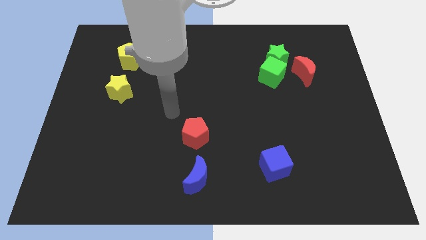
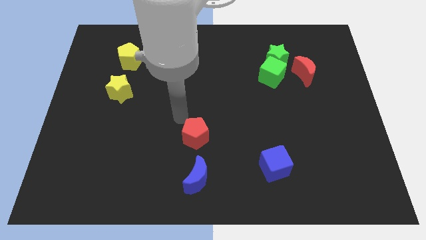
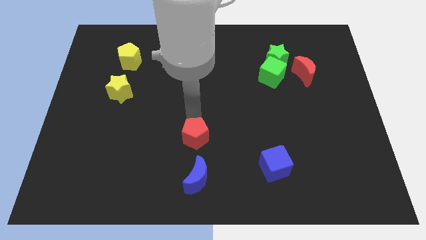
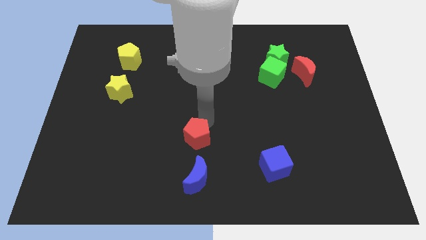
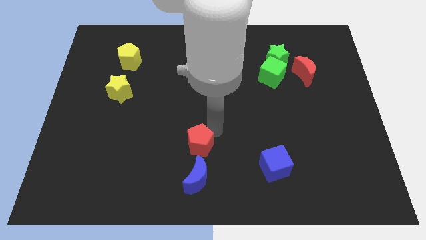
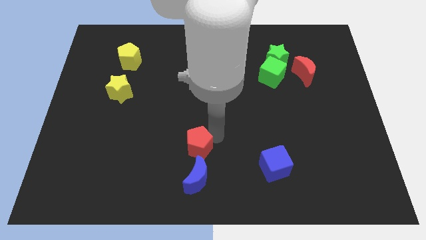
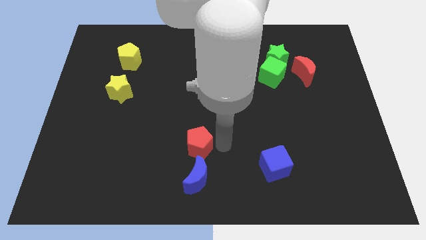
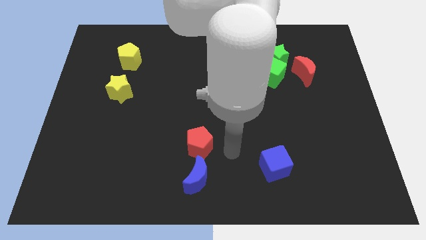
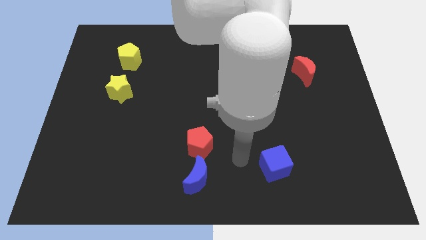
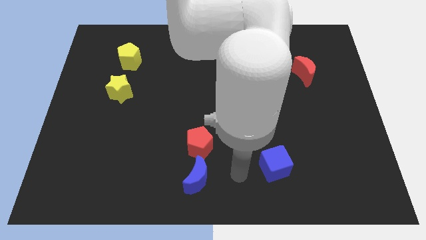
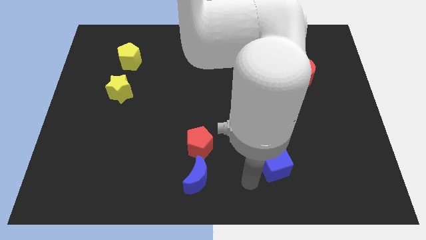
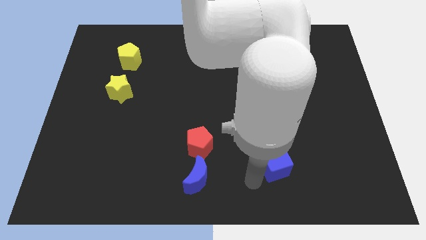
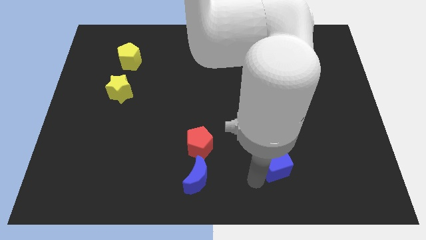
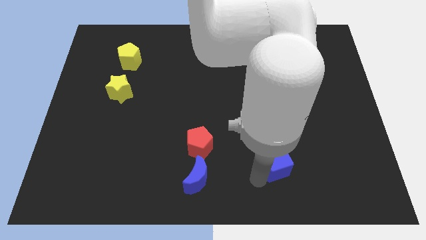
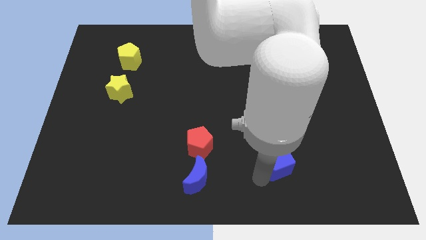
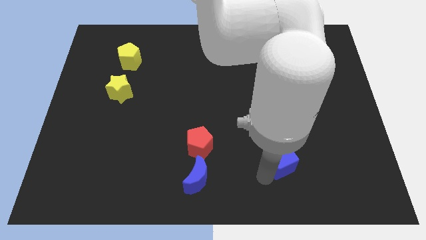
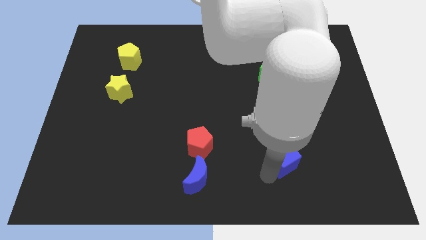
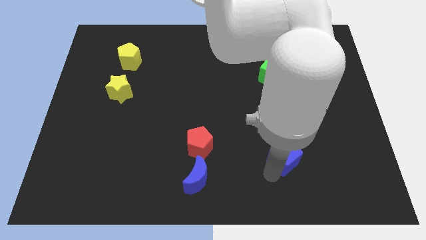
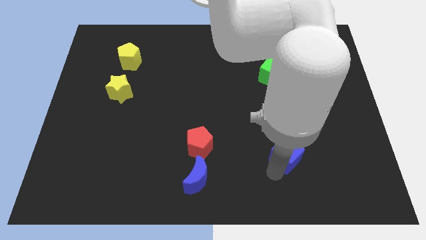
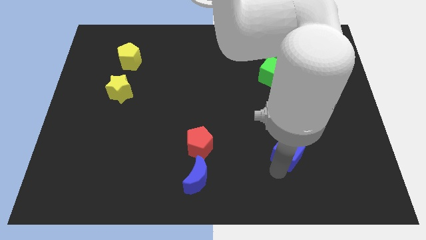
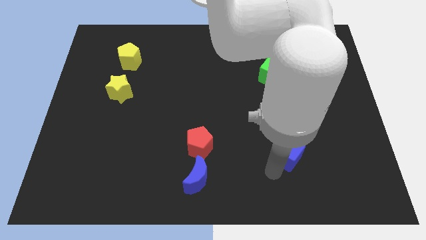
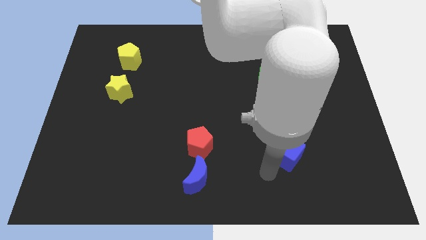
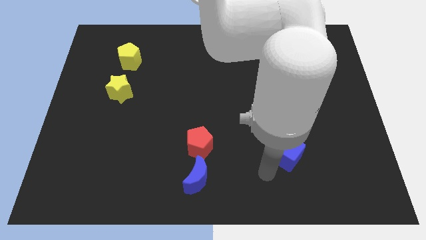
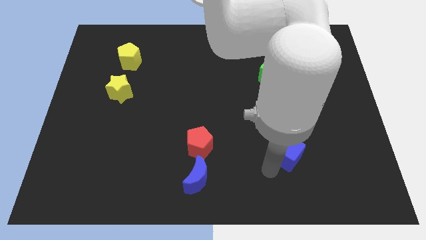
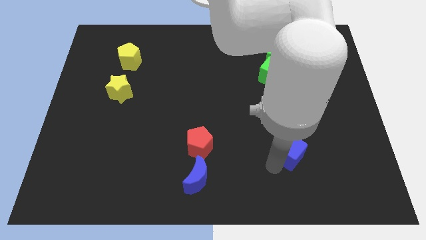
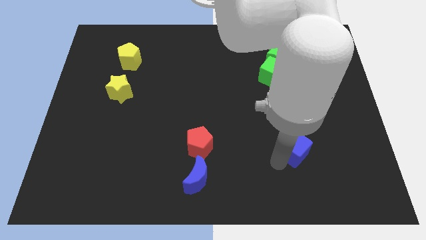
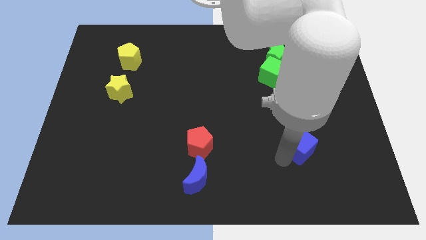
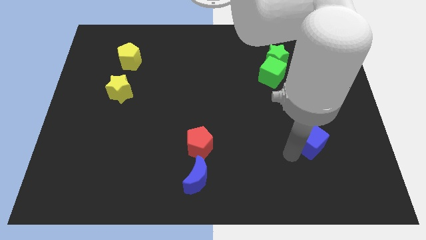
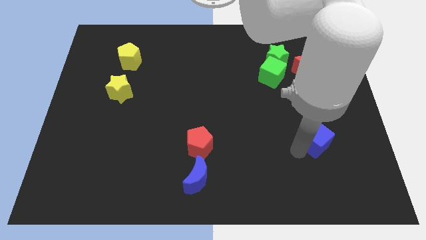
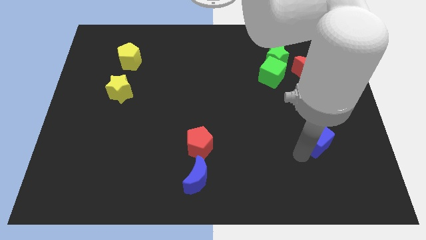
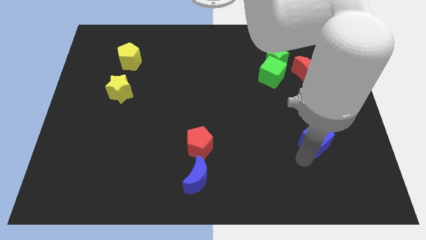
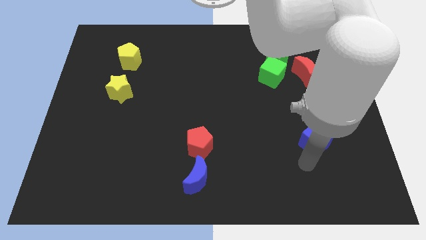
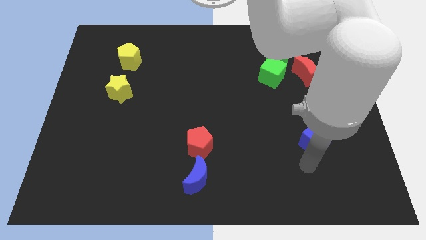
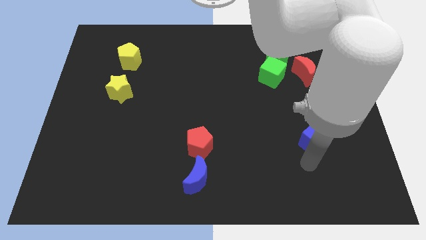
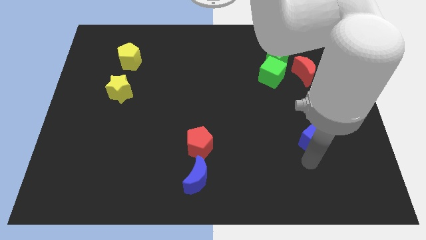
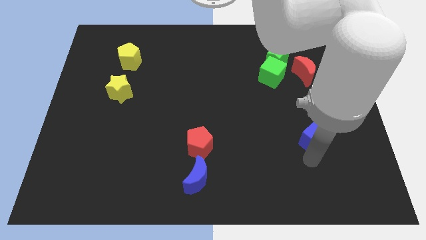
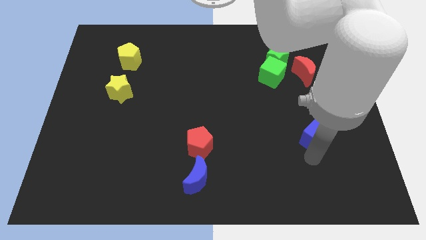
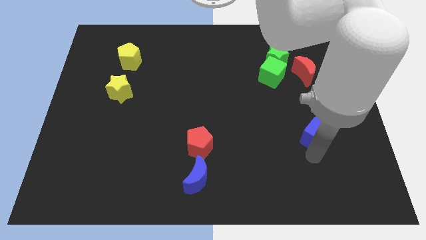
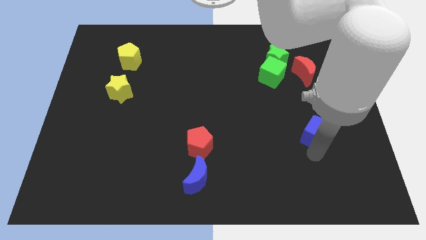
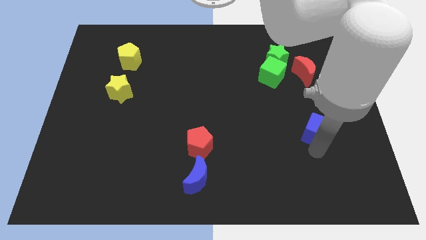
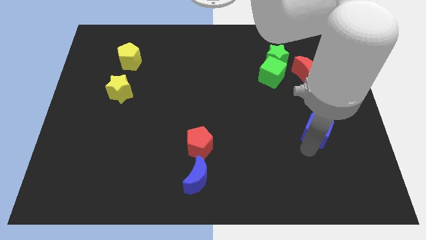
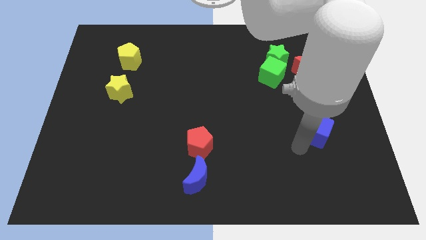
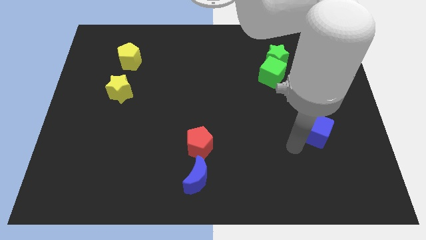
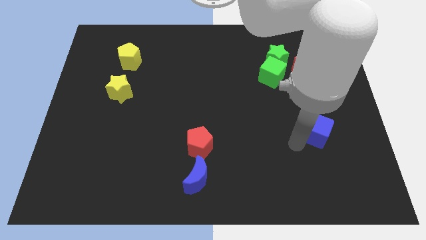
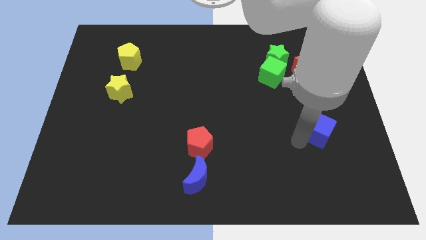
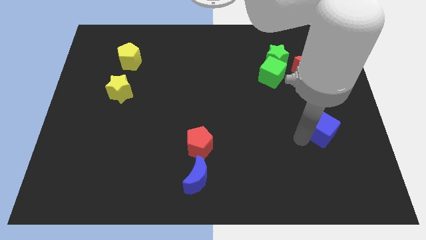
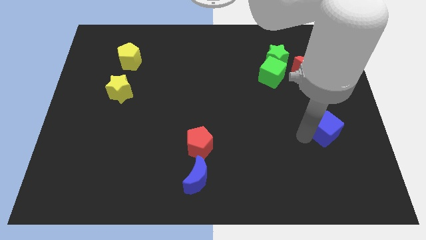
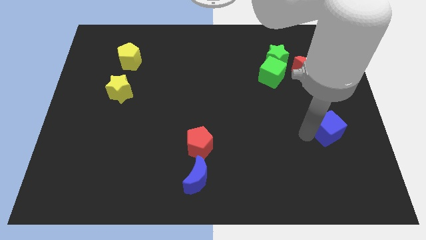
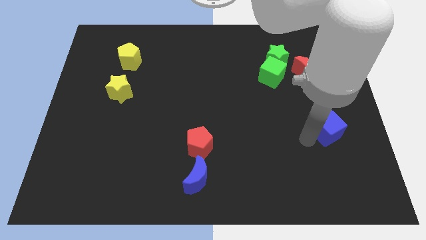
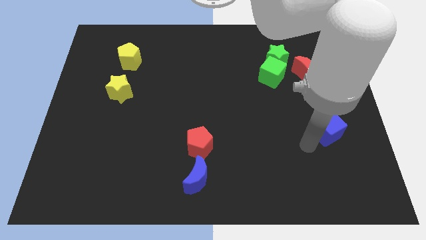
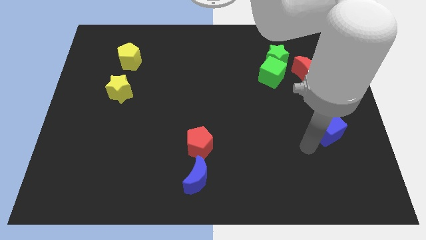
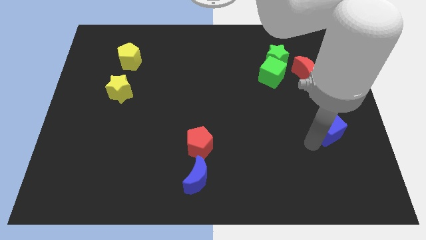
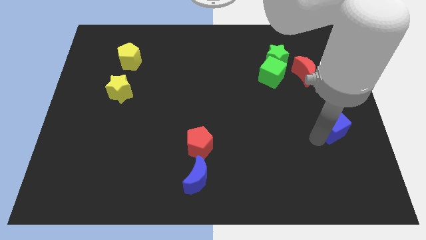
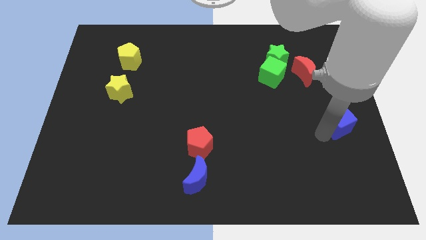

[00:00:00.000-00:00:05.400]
slide the blue cube to the center right

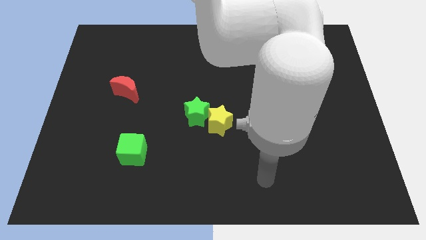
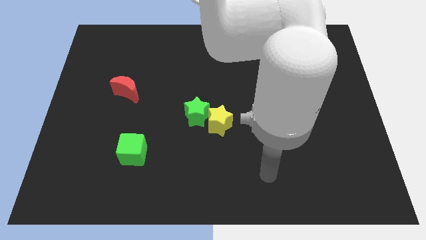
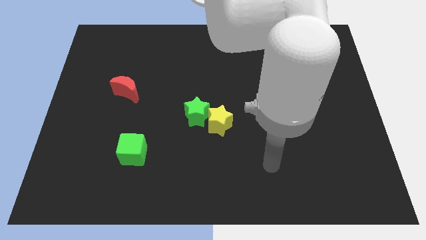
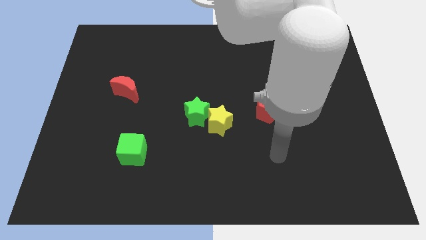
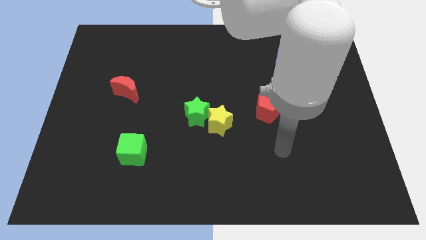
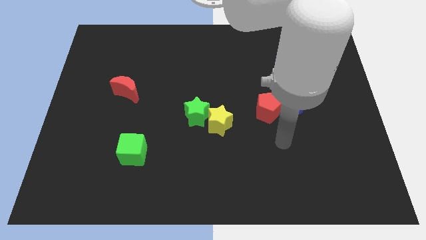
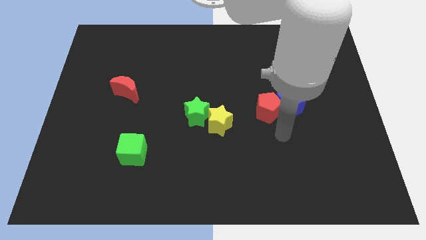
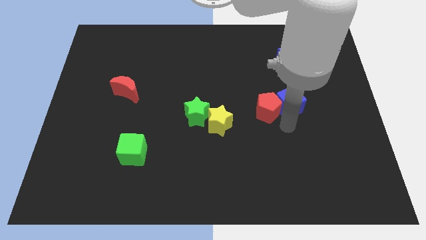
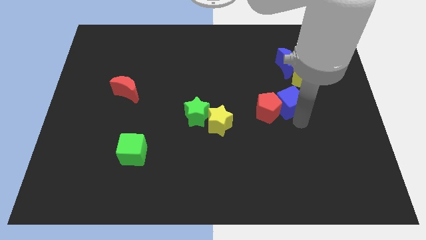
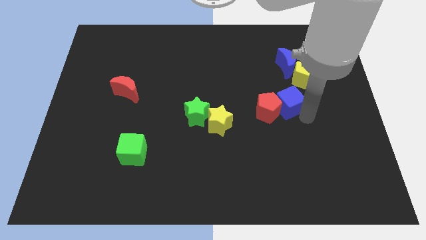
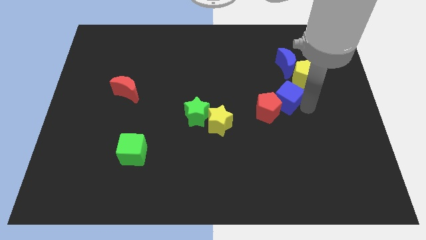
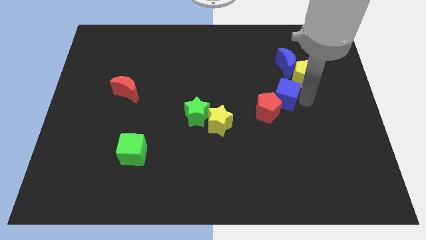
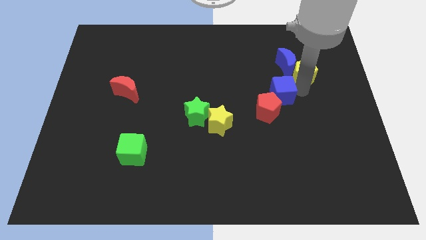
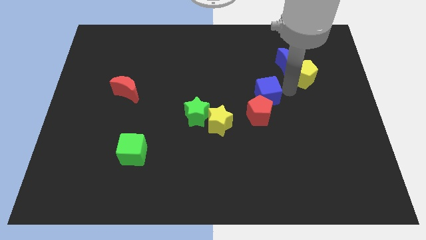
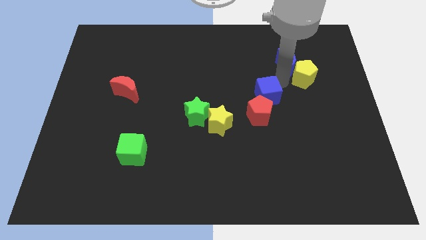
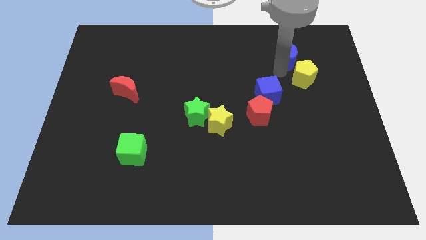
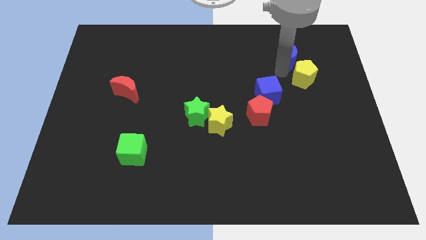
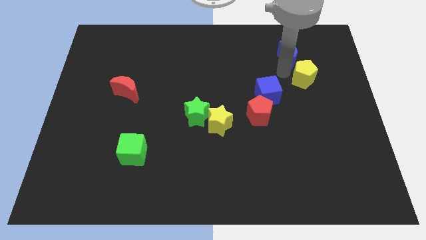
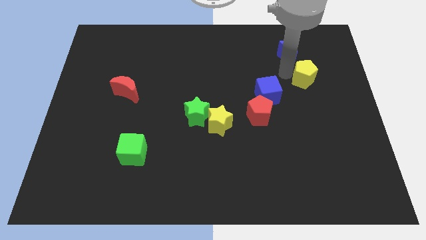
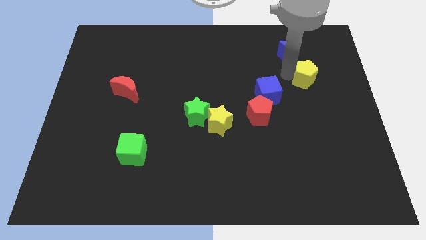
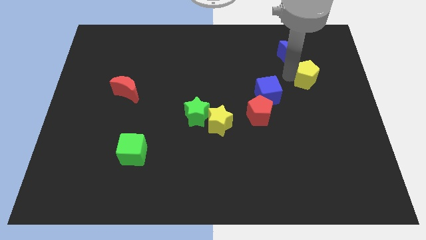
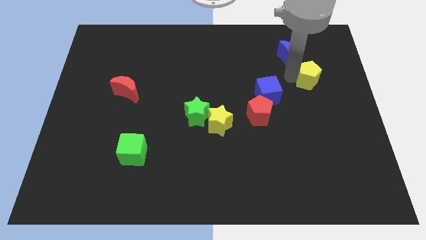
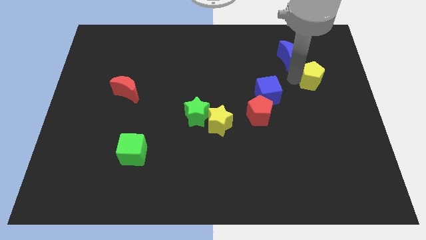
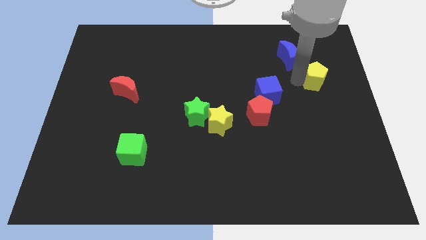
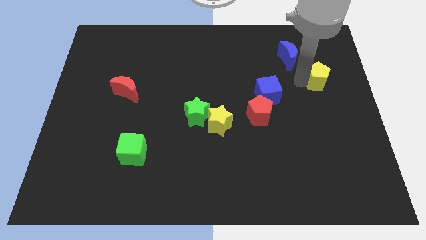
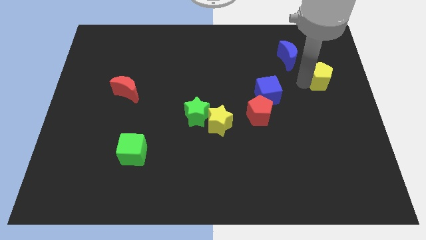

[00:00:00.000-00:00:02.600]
slide the yellow pentagon to the right side of the board
